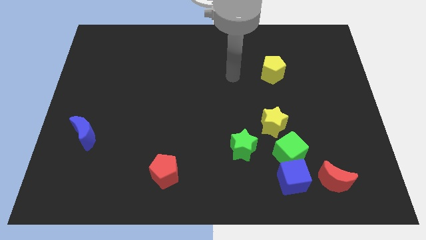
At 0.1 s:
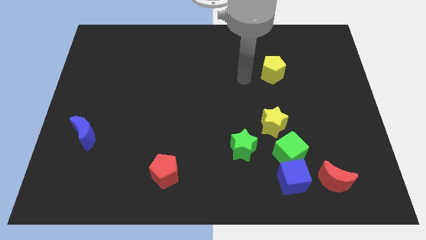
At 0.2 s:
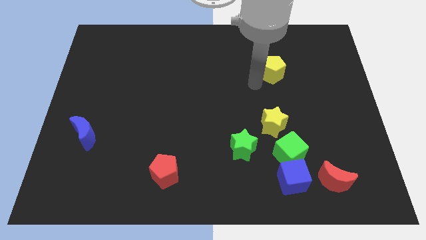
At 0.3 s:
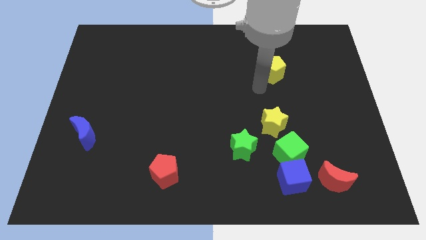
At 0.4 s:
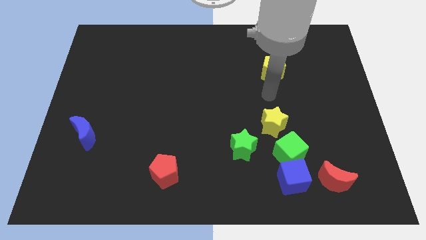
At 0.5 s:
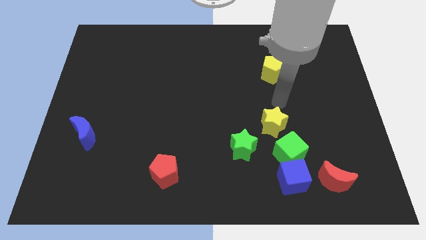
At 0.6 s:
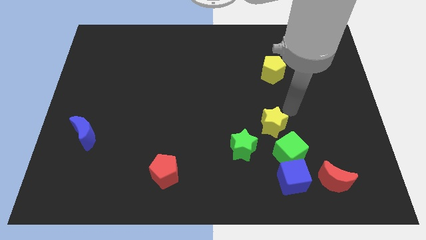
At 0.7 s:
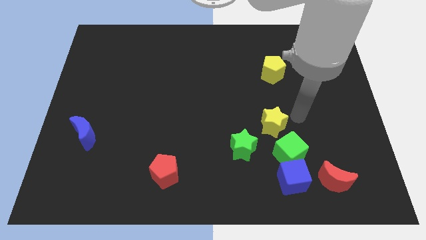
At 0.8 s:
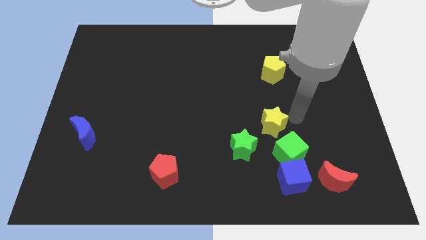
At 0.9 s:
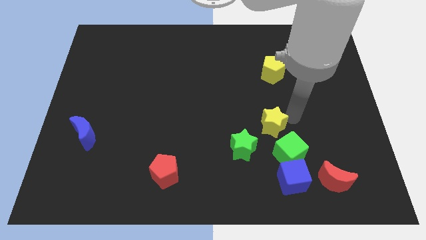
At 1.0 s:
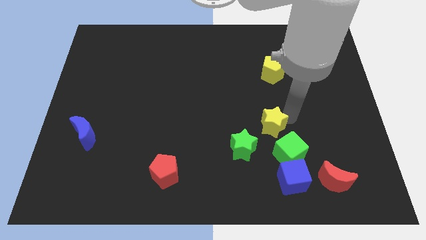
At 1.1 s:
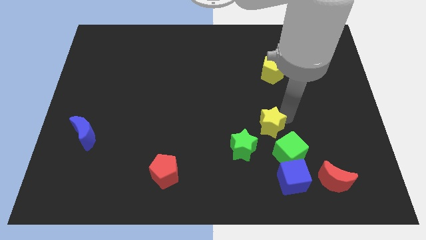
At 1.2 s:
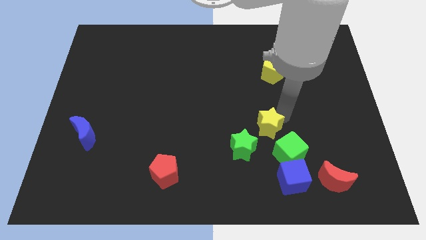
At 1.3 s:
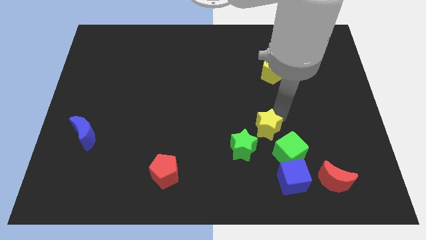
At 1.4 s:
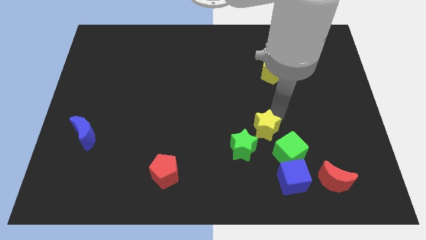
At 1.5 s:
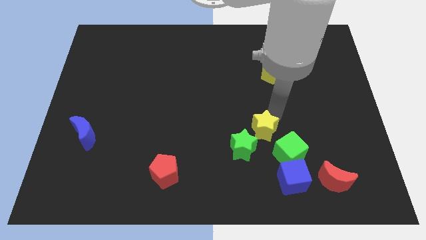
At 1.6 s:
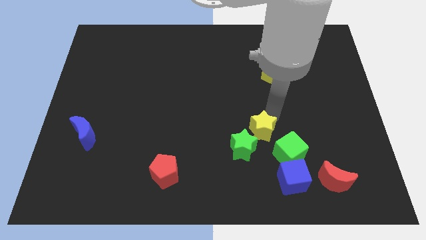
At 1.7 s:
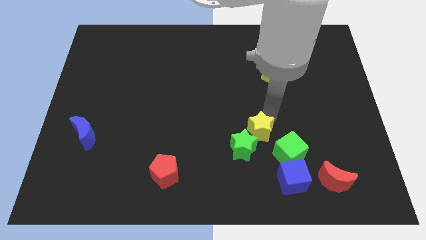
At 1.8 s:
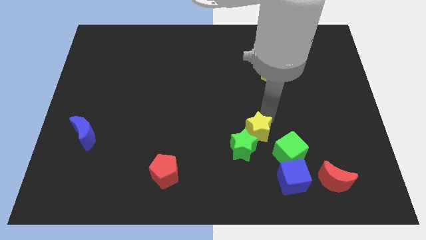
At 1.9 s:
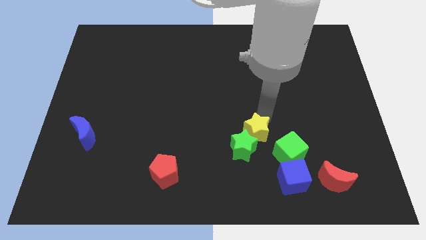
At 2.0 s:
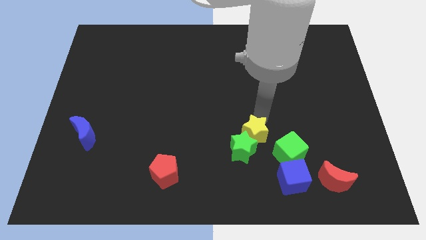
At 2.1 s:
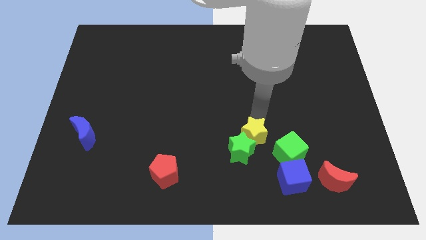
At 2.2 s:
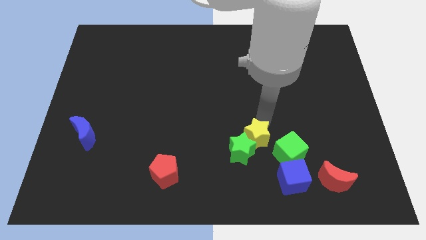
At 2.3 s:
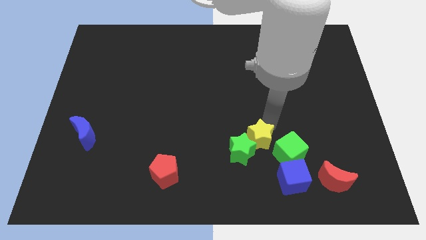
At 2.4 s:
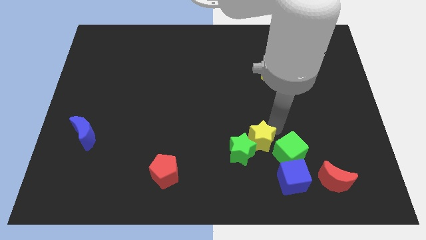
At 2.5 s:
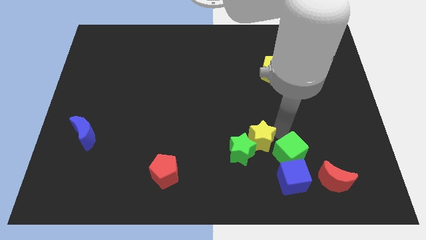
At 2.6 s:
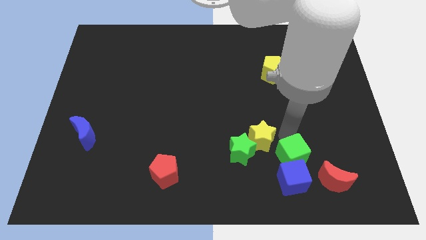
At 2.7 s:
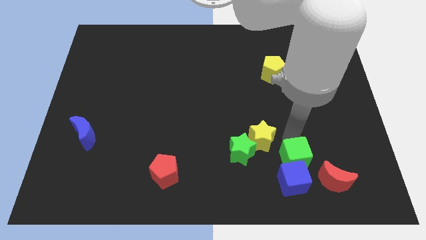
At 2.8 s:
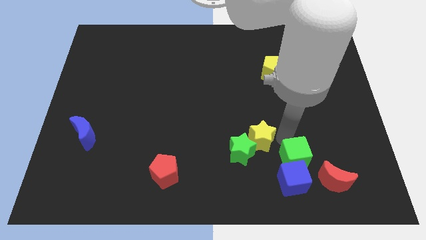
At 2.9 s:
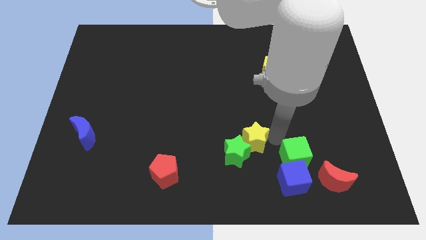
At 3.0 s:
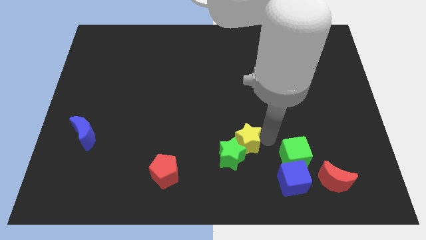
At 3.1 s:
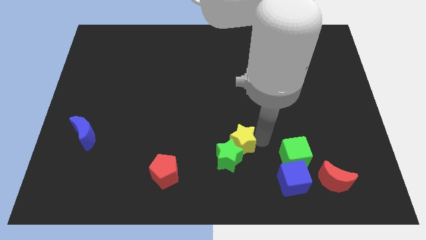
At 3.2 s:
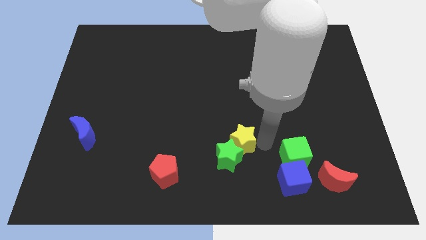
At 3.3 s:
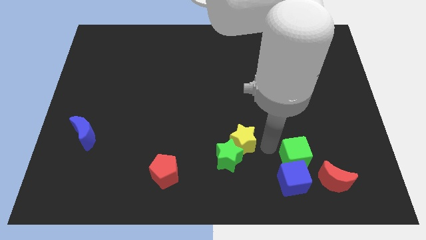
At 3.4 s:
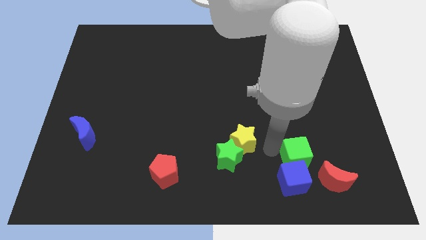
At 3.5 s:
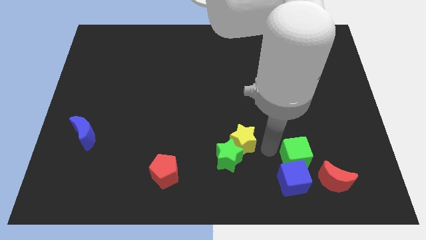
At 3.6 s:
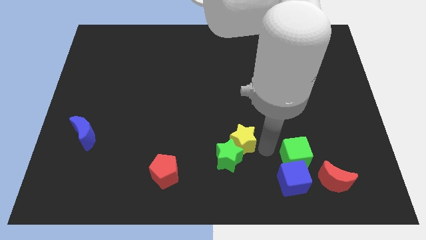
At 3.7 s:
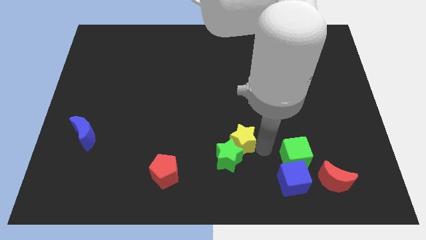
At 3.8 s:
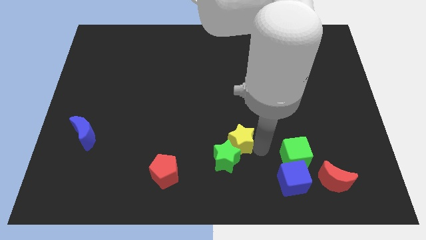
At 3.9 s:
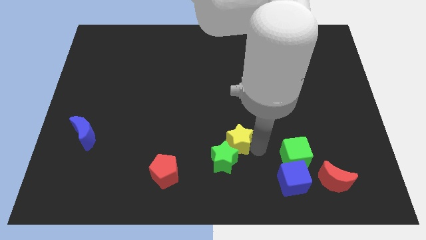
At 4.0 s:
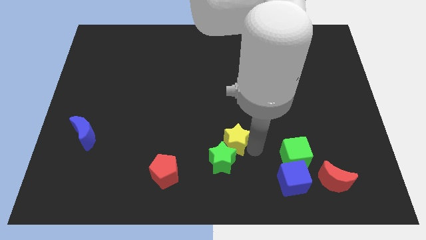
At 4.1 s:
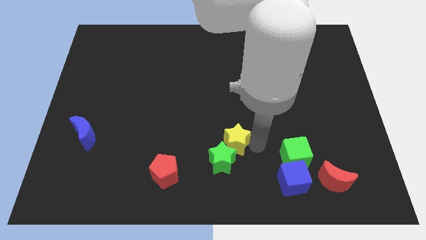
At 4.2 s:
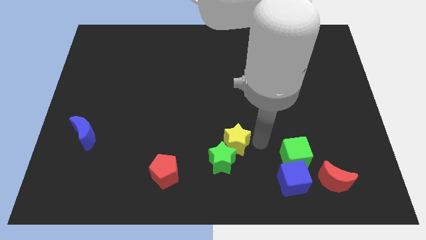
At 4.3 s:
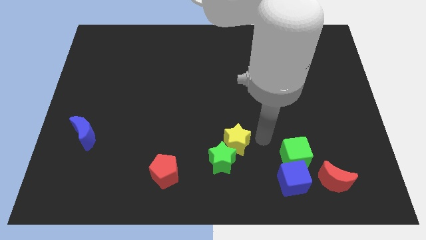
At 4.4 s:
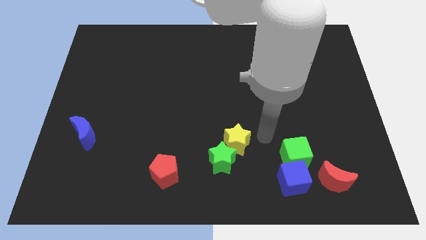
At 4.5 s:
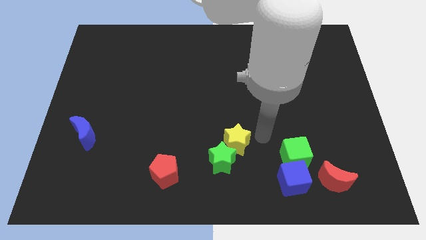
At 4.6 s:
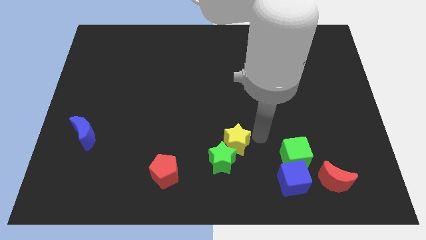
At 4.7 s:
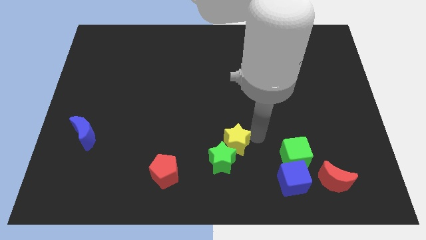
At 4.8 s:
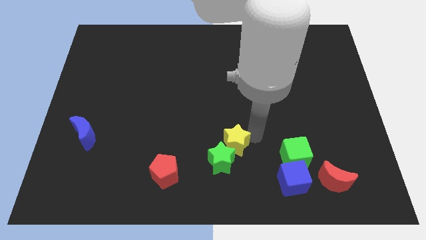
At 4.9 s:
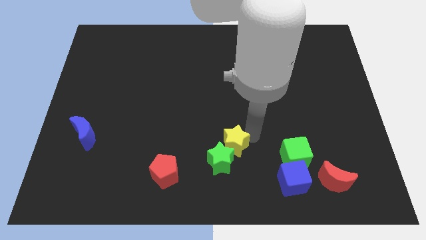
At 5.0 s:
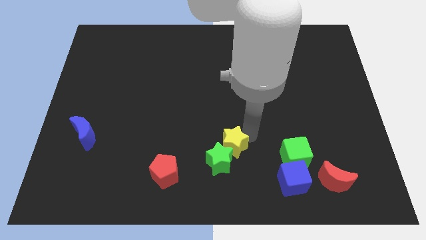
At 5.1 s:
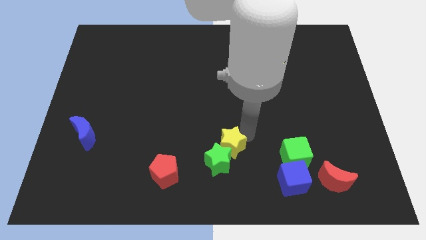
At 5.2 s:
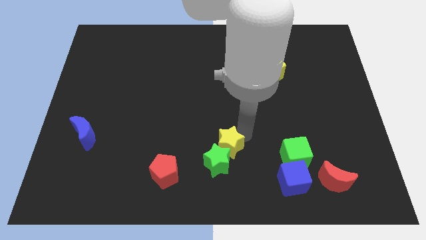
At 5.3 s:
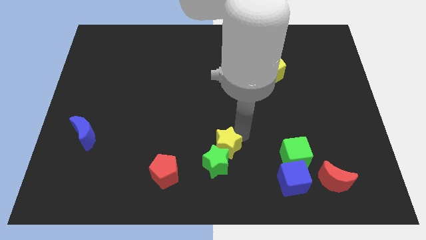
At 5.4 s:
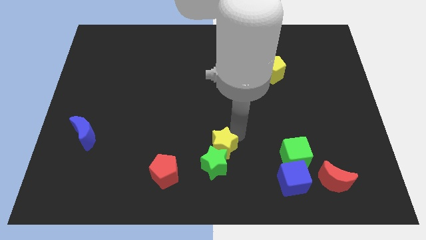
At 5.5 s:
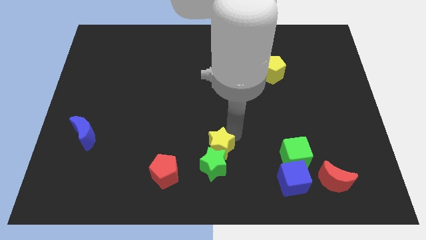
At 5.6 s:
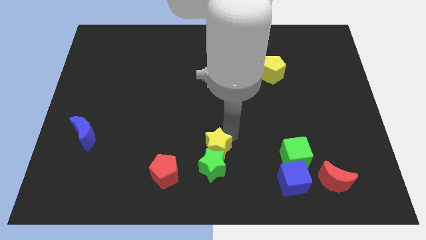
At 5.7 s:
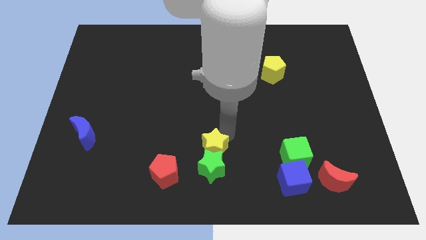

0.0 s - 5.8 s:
push the yellow star to the top right of the red pentagon

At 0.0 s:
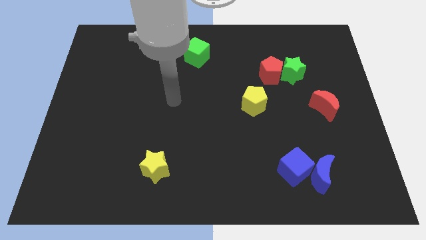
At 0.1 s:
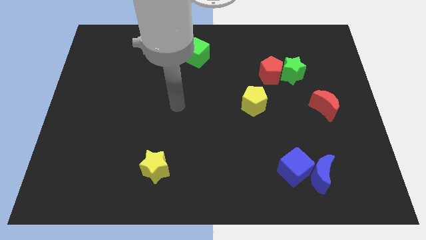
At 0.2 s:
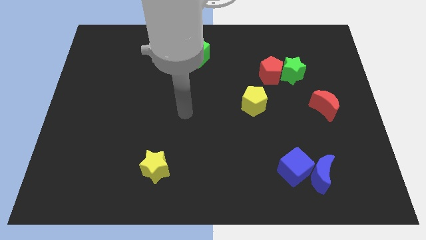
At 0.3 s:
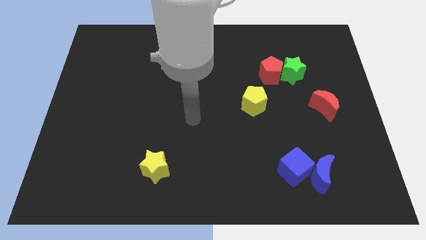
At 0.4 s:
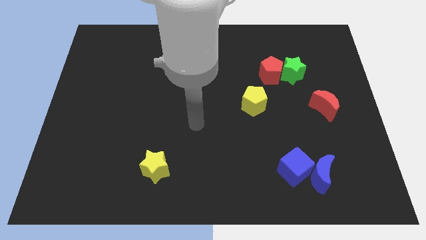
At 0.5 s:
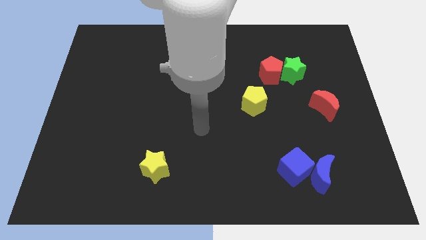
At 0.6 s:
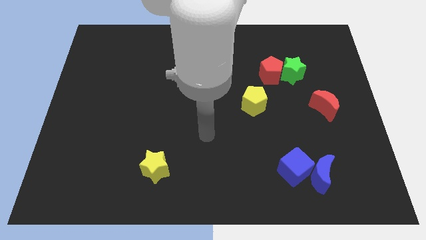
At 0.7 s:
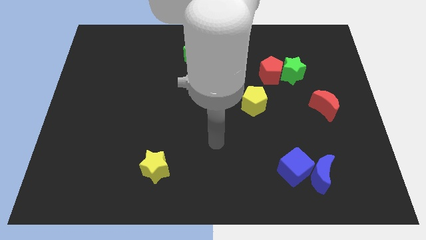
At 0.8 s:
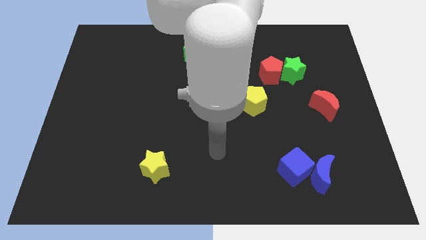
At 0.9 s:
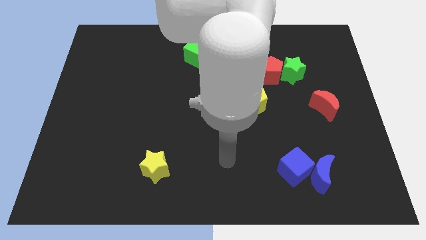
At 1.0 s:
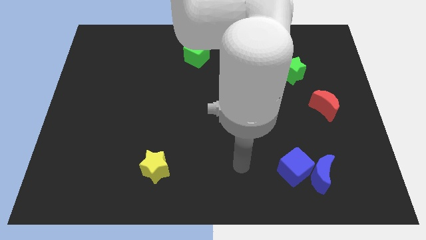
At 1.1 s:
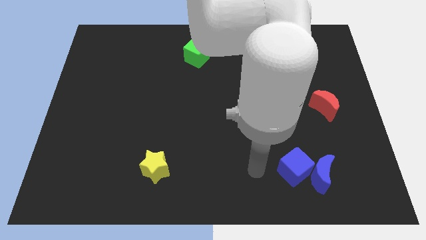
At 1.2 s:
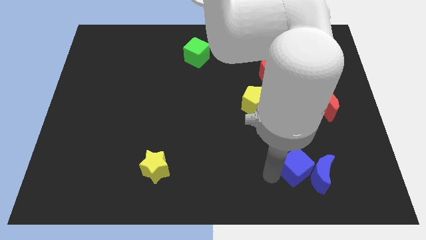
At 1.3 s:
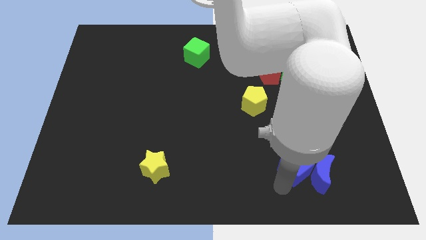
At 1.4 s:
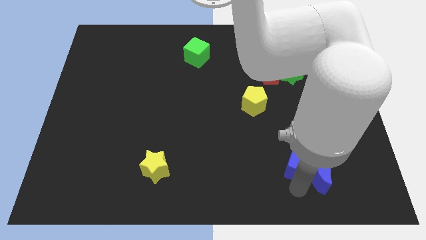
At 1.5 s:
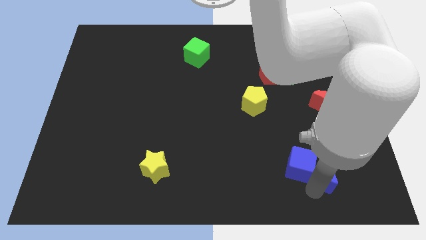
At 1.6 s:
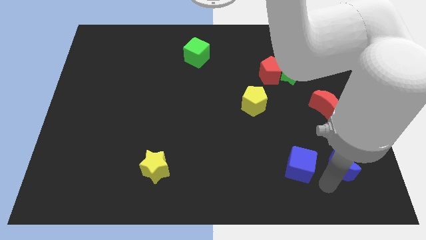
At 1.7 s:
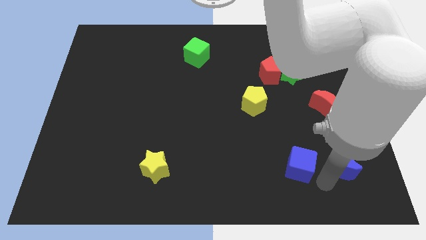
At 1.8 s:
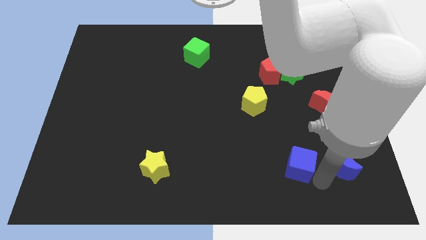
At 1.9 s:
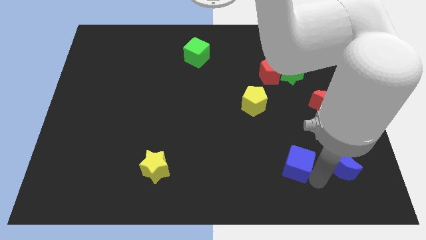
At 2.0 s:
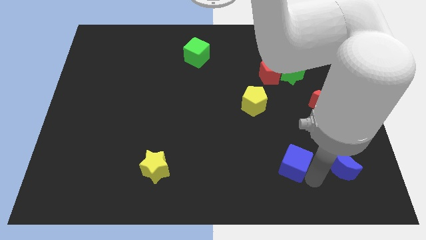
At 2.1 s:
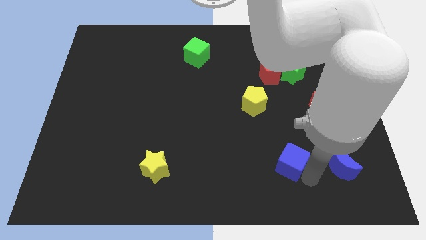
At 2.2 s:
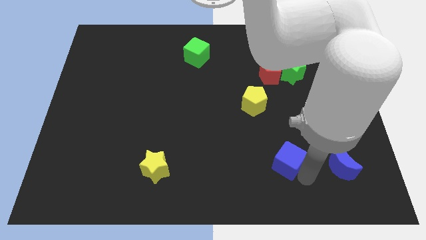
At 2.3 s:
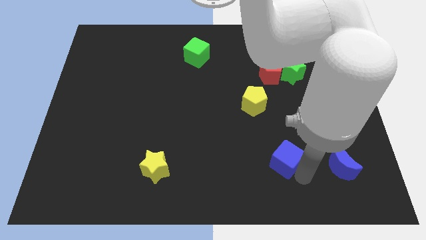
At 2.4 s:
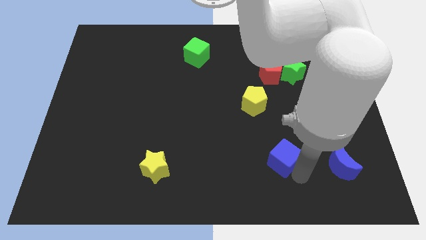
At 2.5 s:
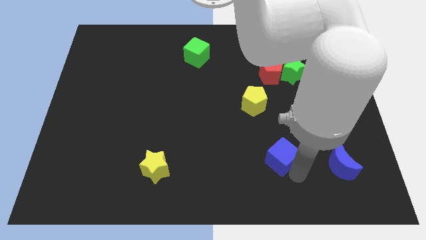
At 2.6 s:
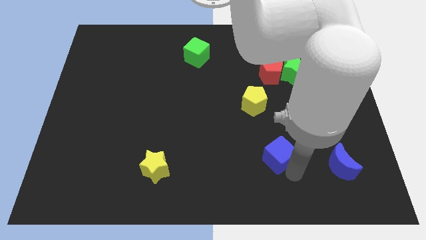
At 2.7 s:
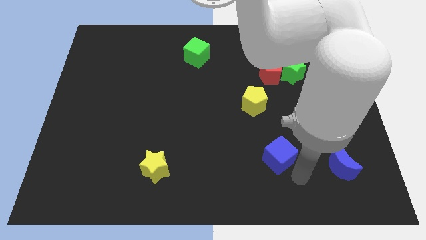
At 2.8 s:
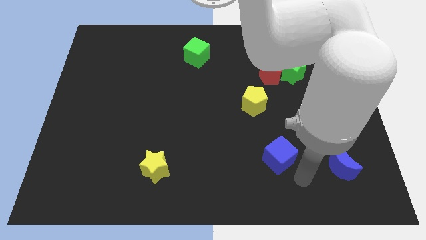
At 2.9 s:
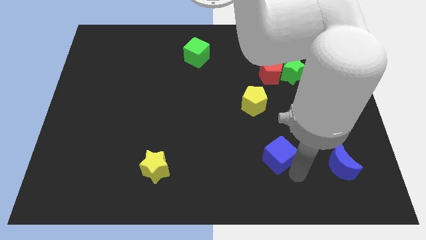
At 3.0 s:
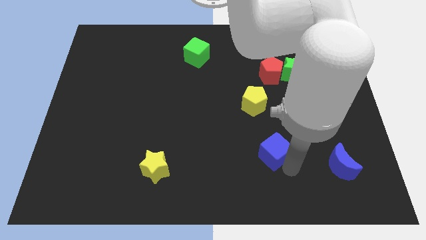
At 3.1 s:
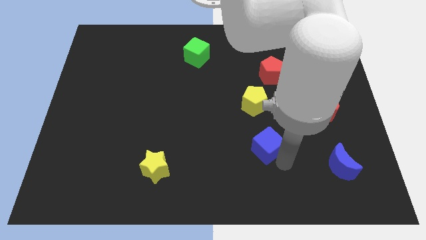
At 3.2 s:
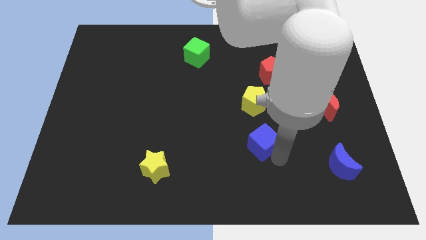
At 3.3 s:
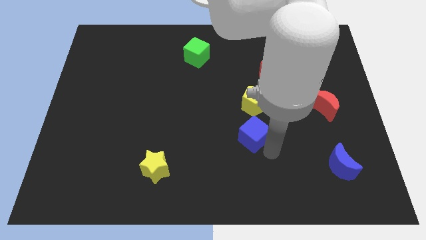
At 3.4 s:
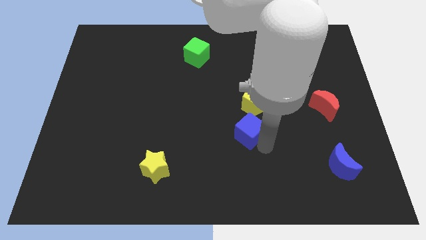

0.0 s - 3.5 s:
put the blue cube to the bottom left of the yellow pentagon
